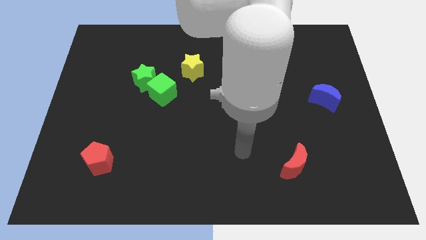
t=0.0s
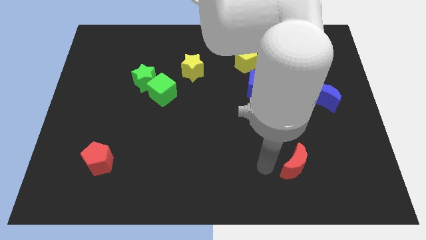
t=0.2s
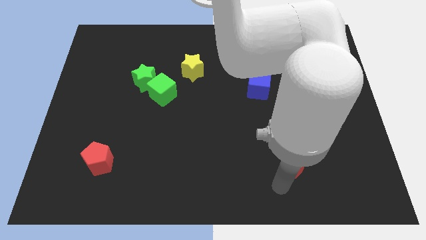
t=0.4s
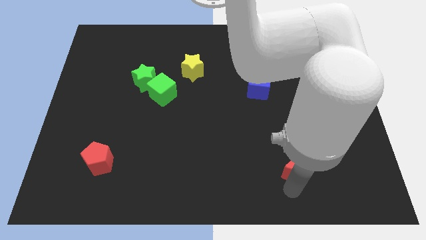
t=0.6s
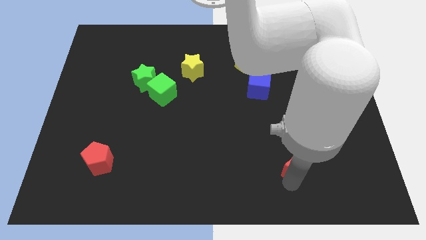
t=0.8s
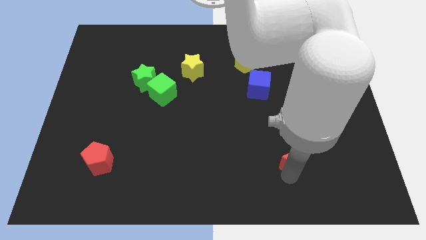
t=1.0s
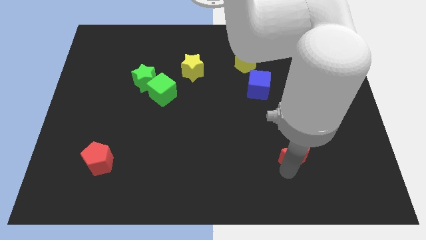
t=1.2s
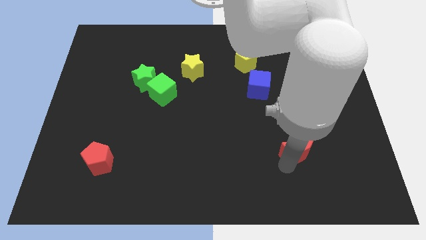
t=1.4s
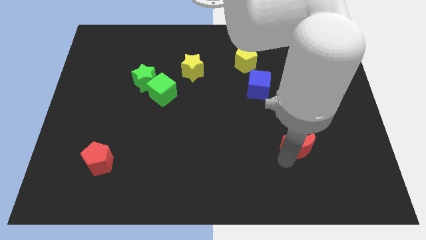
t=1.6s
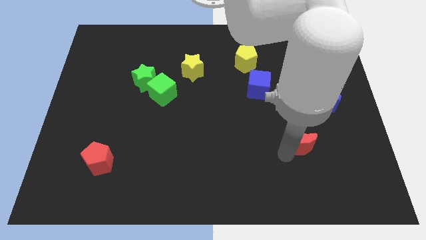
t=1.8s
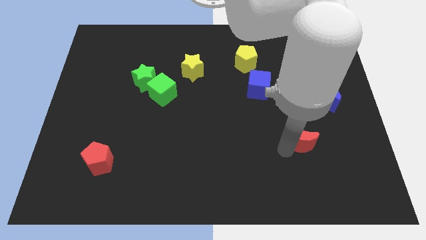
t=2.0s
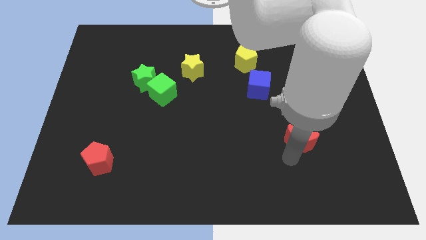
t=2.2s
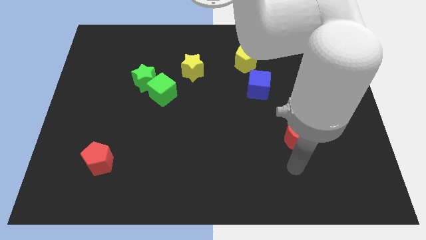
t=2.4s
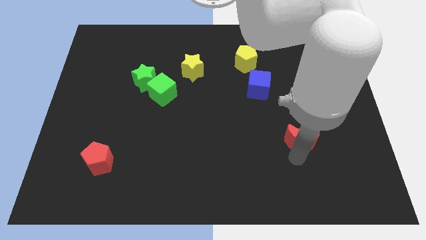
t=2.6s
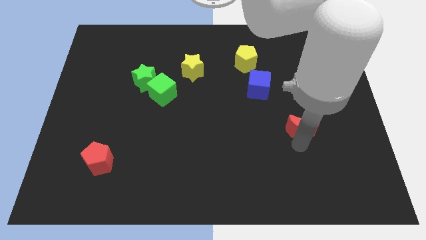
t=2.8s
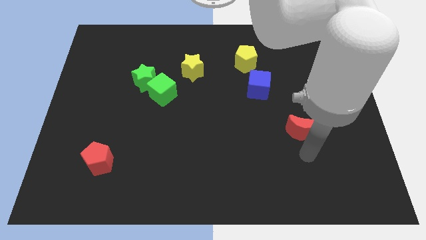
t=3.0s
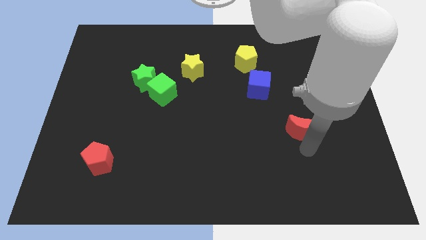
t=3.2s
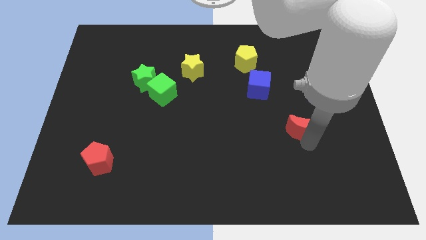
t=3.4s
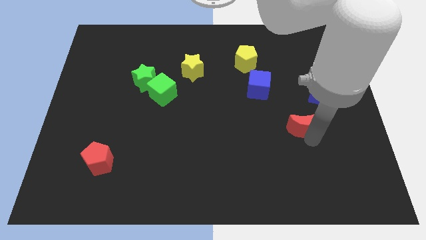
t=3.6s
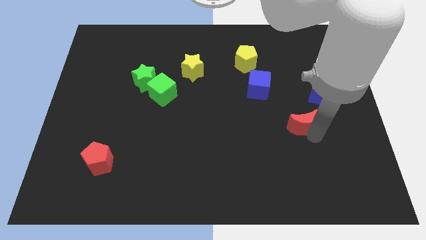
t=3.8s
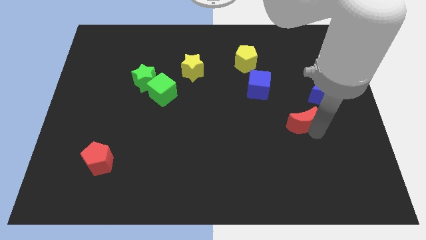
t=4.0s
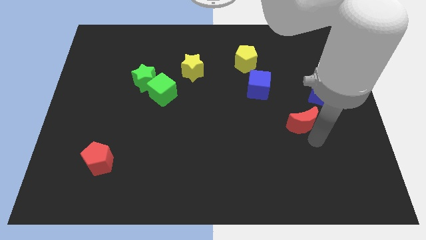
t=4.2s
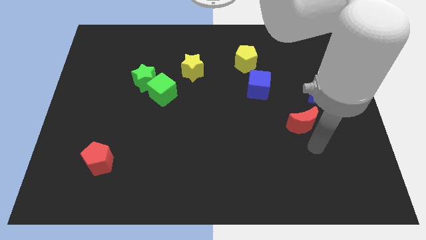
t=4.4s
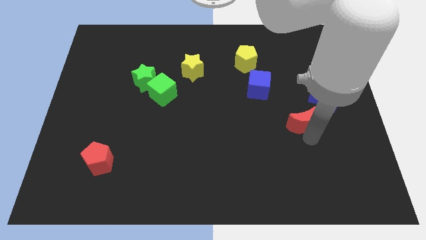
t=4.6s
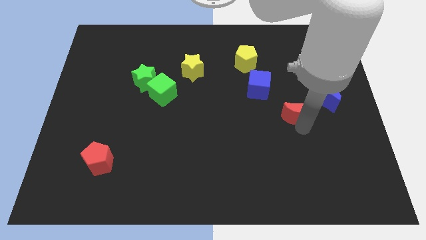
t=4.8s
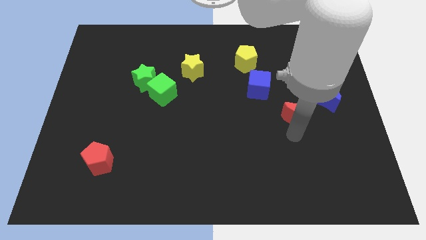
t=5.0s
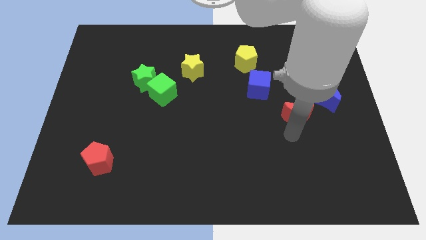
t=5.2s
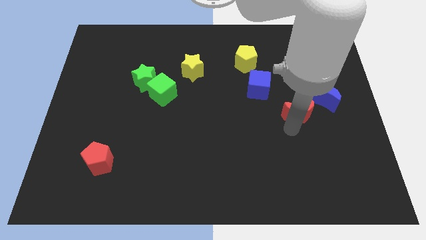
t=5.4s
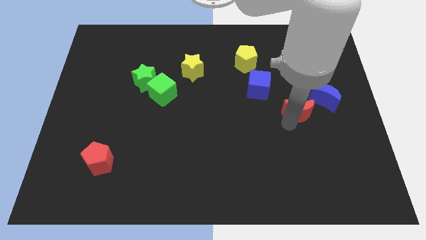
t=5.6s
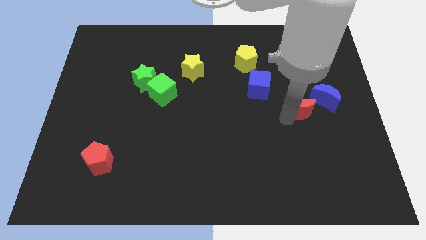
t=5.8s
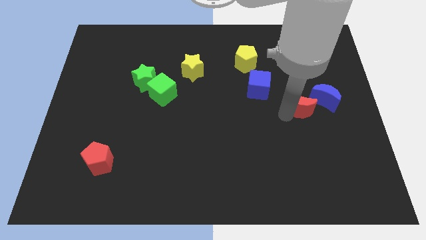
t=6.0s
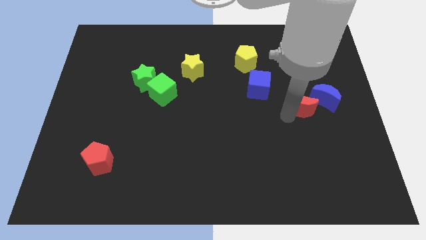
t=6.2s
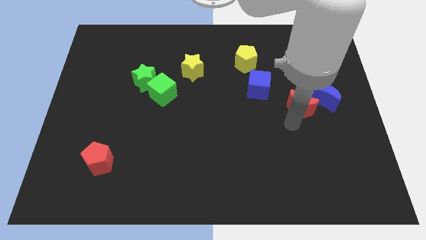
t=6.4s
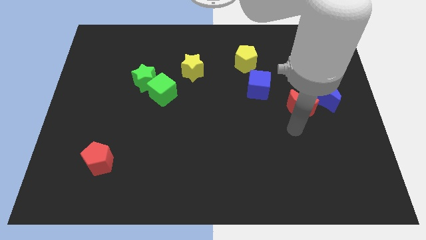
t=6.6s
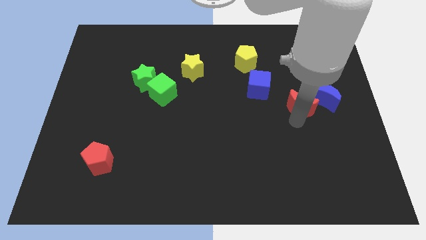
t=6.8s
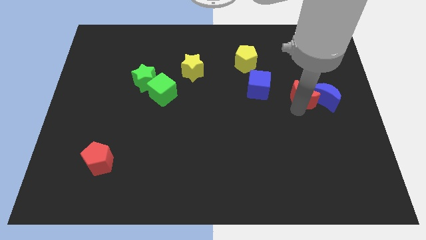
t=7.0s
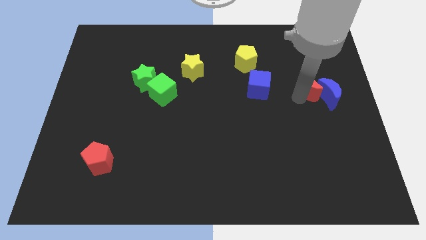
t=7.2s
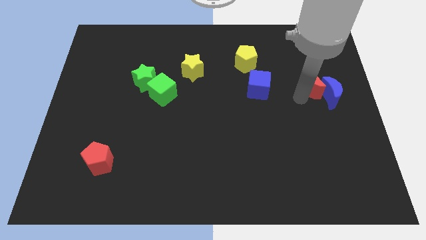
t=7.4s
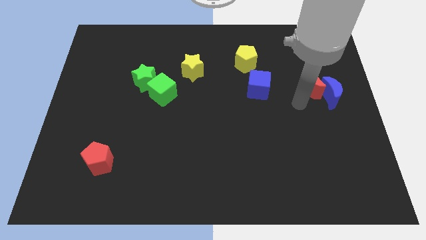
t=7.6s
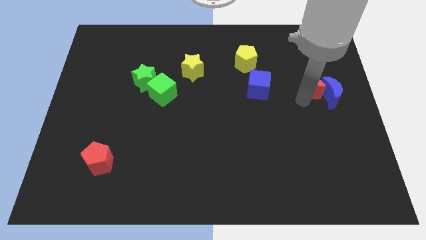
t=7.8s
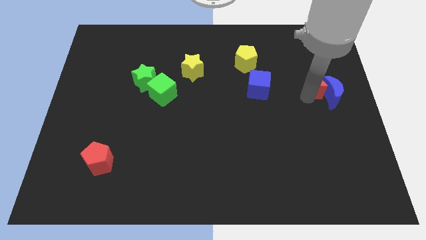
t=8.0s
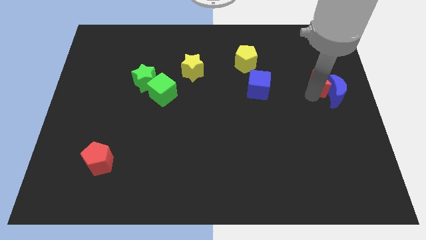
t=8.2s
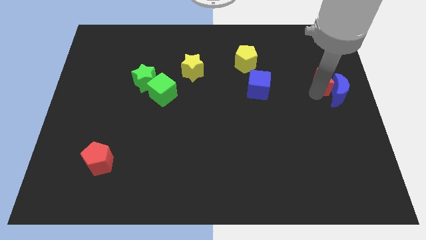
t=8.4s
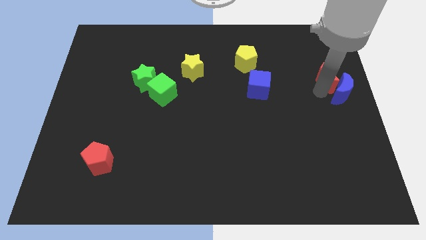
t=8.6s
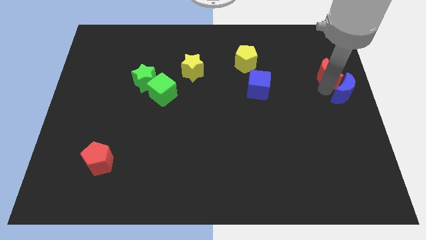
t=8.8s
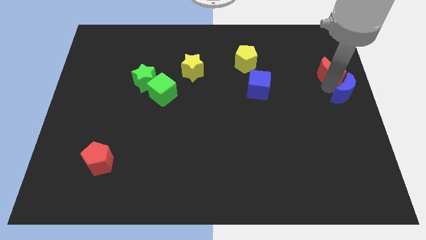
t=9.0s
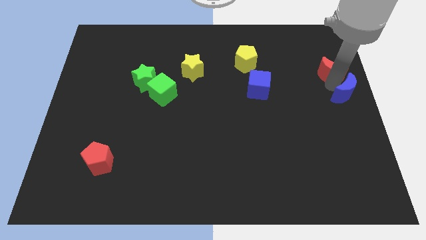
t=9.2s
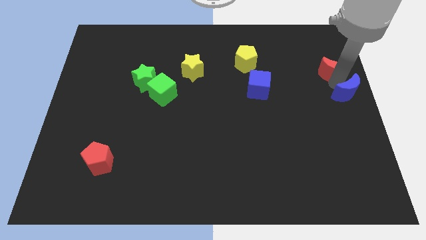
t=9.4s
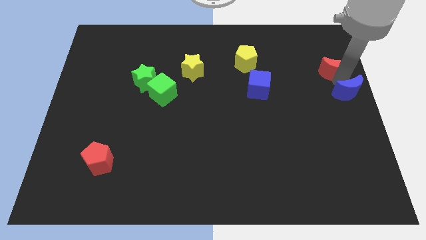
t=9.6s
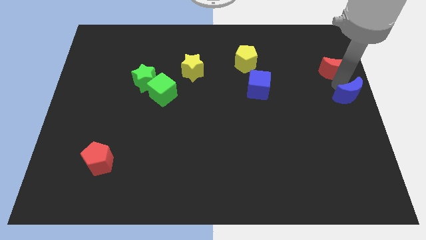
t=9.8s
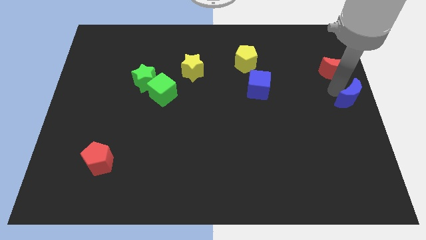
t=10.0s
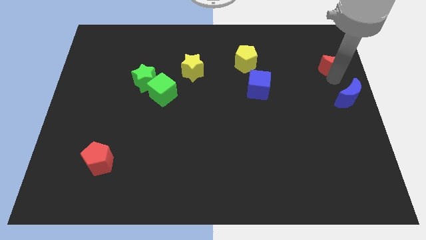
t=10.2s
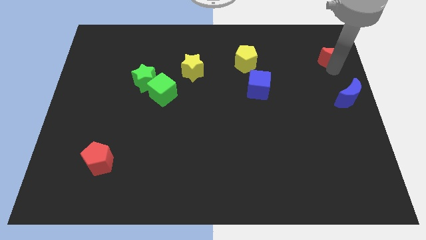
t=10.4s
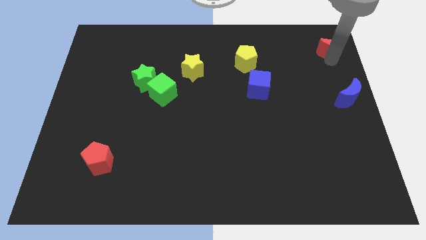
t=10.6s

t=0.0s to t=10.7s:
slide the red moon to the top right of the board

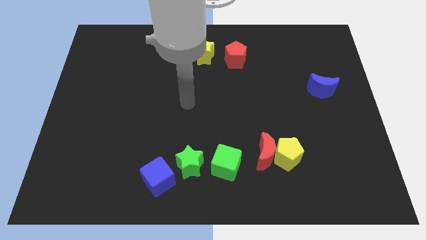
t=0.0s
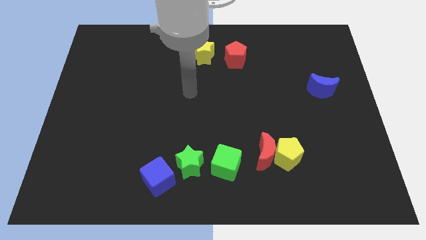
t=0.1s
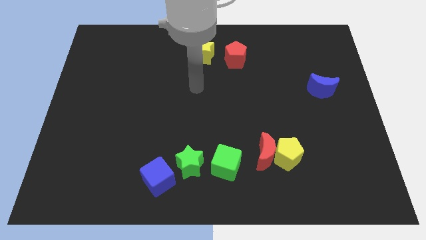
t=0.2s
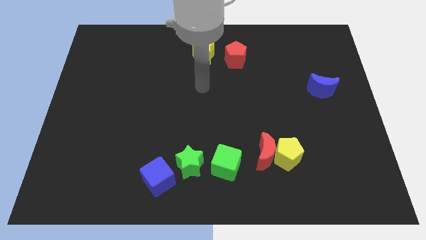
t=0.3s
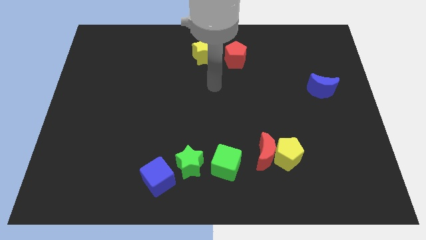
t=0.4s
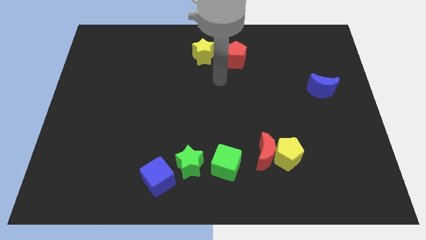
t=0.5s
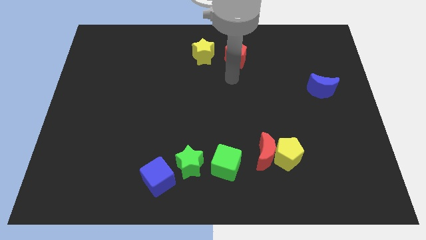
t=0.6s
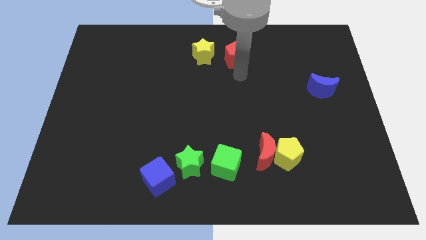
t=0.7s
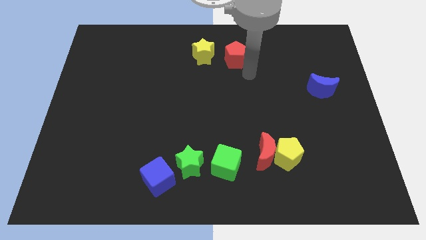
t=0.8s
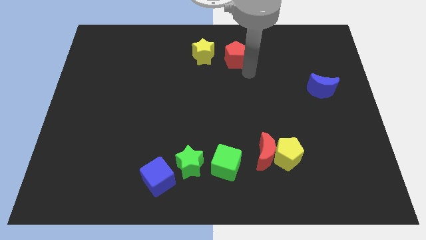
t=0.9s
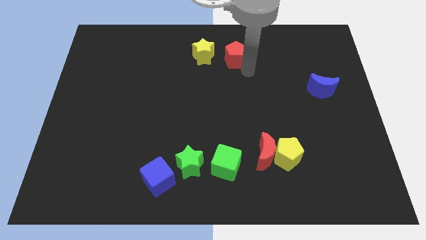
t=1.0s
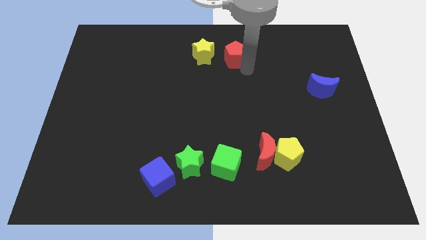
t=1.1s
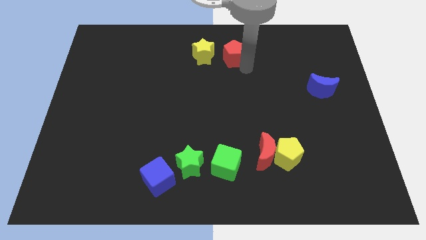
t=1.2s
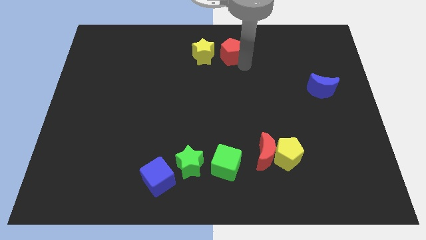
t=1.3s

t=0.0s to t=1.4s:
put the red pentagon to the towards your base
